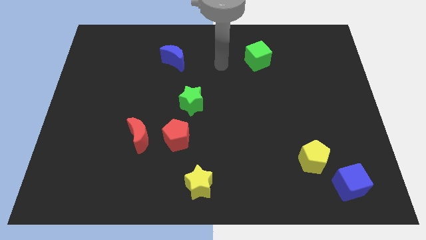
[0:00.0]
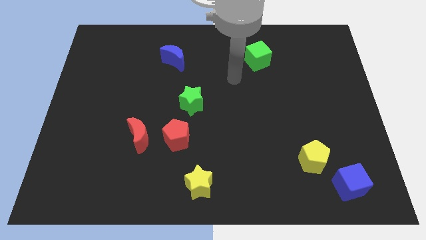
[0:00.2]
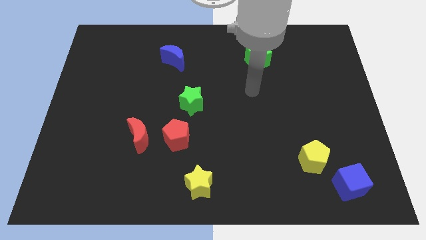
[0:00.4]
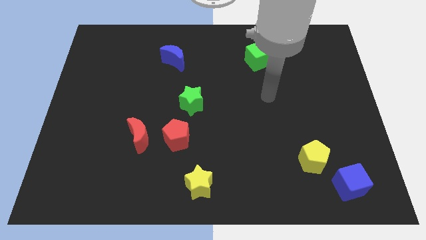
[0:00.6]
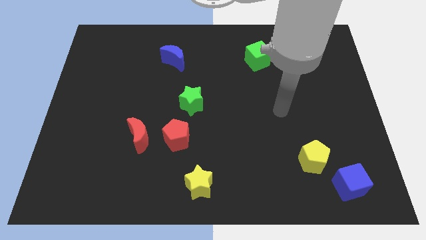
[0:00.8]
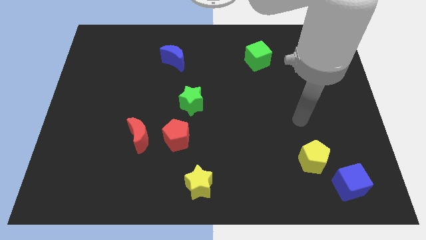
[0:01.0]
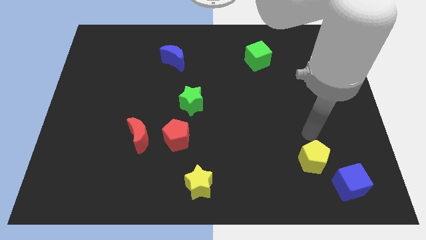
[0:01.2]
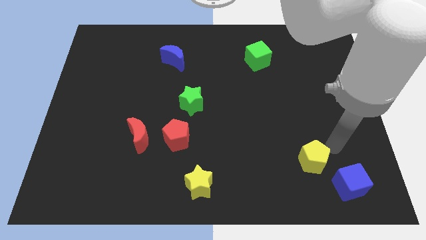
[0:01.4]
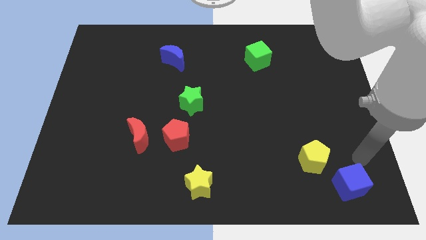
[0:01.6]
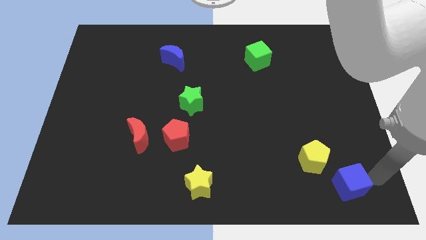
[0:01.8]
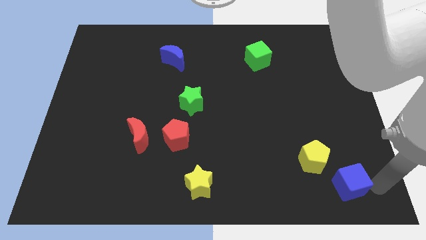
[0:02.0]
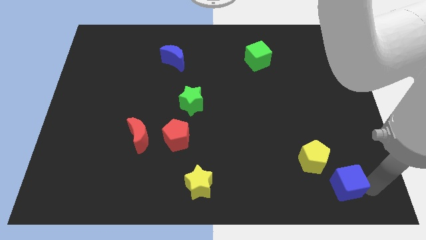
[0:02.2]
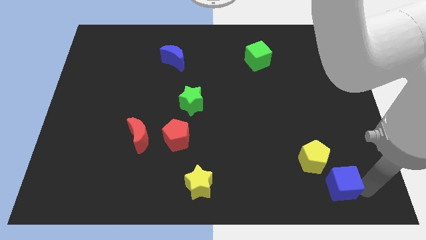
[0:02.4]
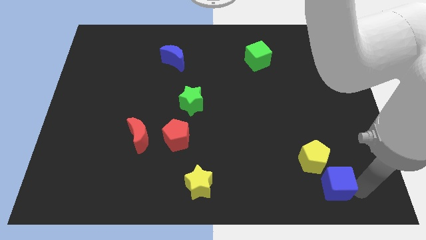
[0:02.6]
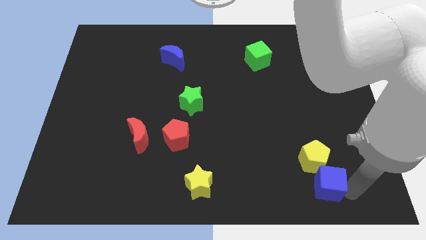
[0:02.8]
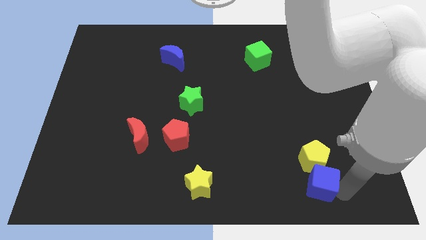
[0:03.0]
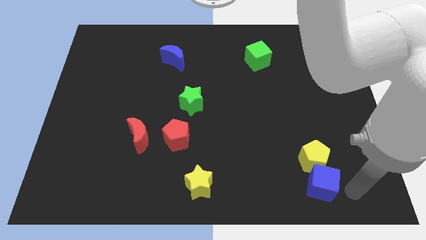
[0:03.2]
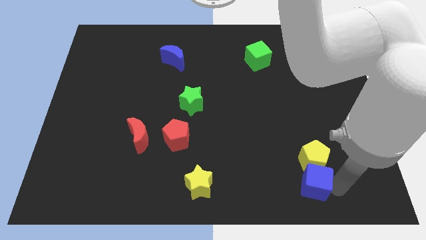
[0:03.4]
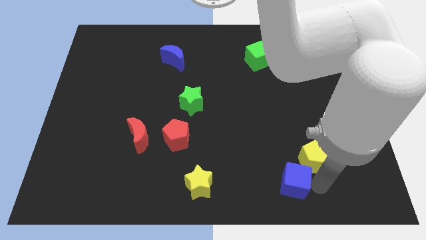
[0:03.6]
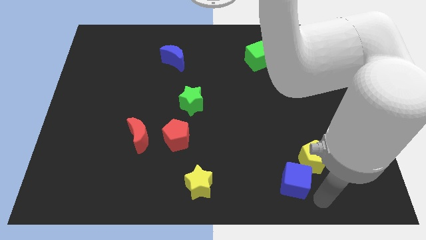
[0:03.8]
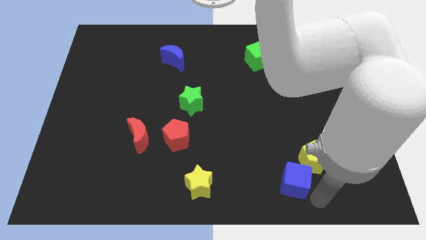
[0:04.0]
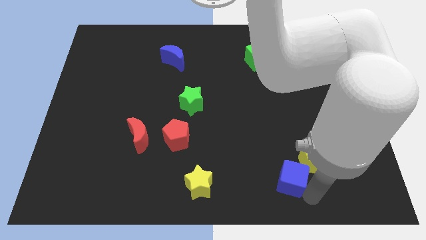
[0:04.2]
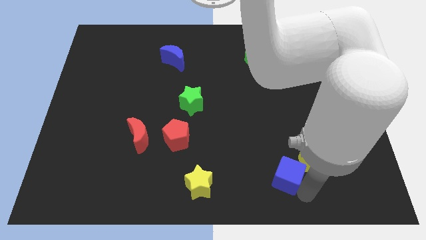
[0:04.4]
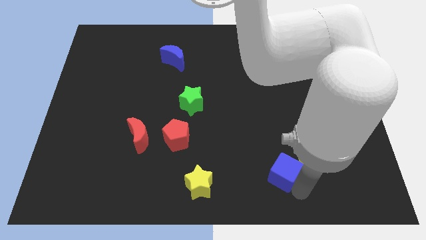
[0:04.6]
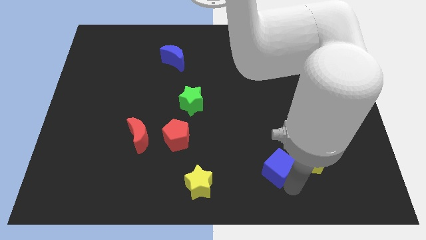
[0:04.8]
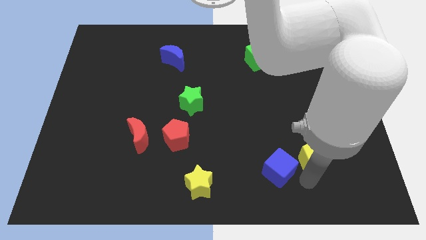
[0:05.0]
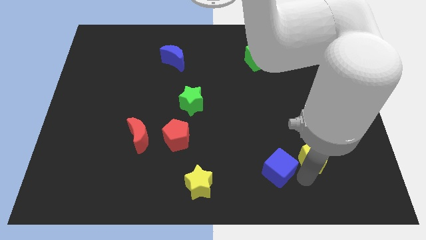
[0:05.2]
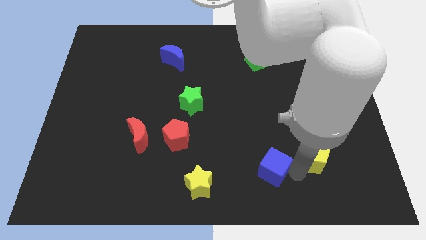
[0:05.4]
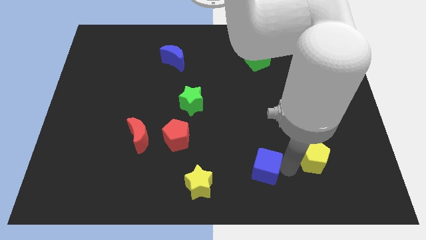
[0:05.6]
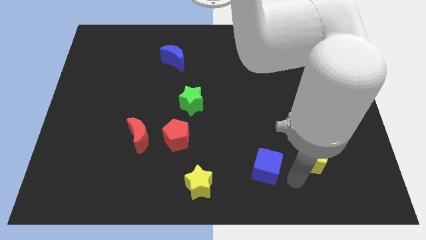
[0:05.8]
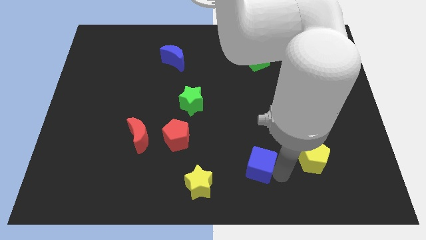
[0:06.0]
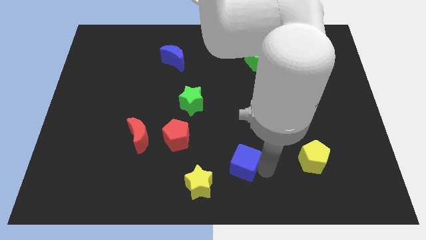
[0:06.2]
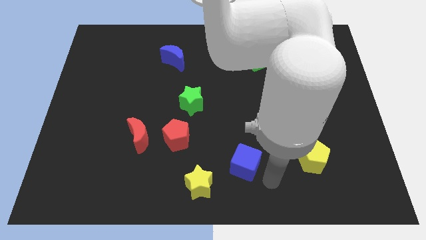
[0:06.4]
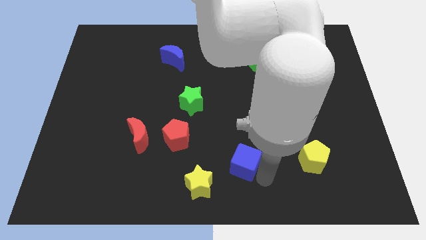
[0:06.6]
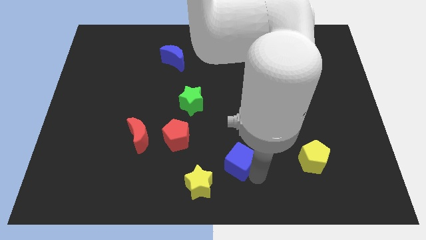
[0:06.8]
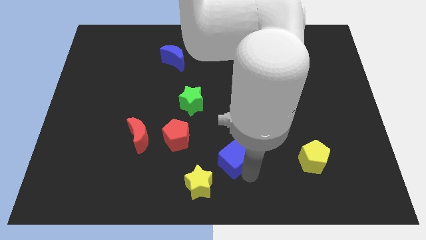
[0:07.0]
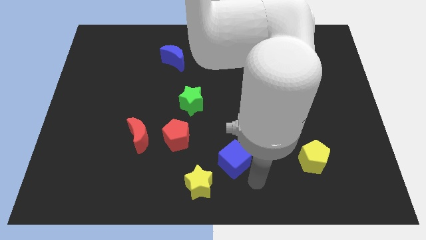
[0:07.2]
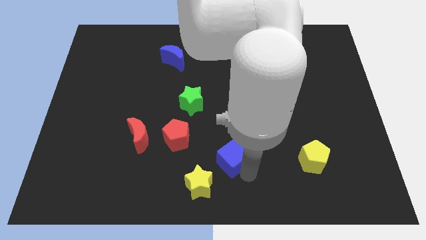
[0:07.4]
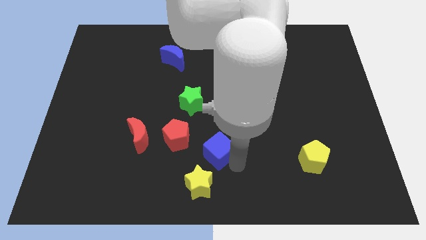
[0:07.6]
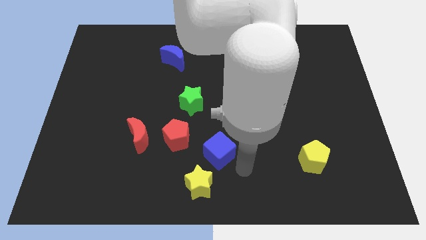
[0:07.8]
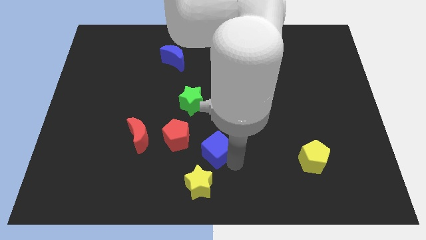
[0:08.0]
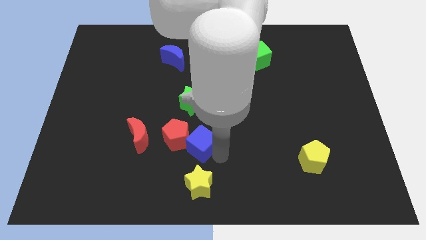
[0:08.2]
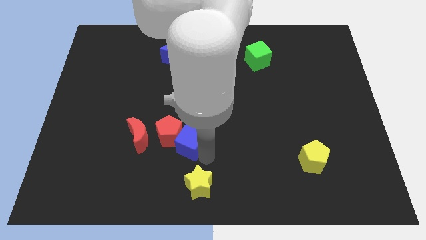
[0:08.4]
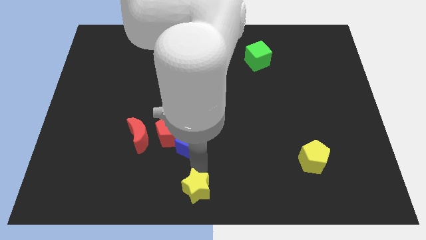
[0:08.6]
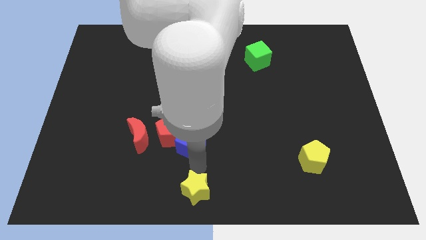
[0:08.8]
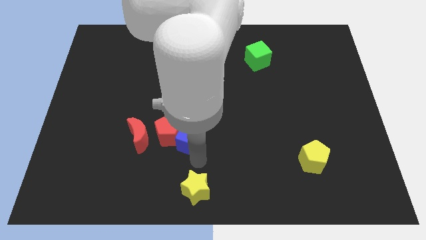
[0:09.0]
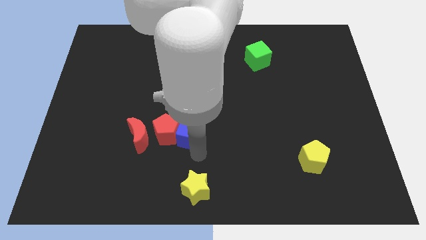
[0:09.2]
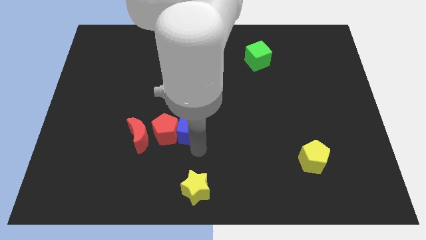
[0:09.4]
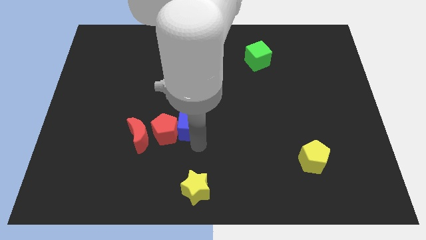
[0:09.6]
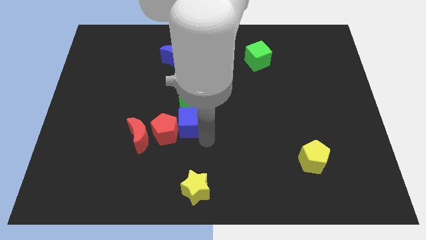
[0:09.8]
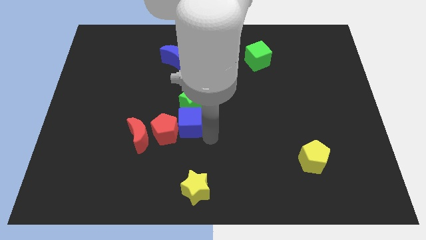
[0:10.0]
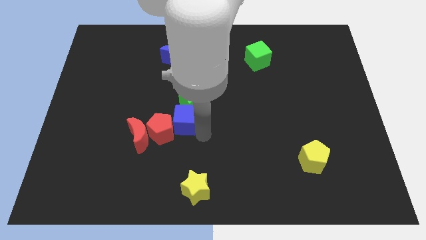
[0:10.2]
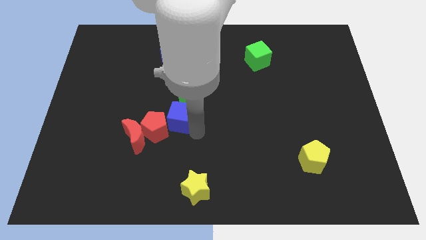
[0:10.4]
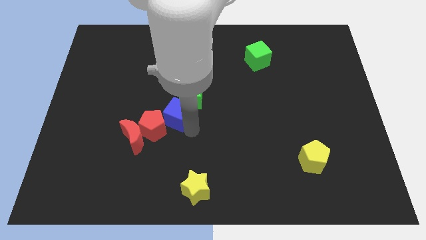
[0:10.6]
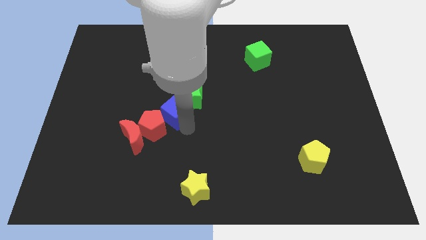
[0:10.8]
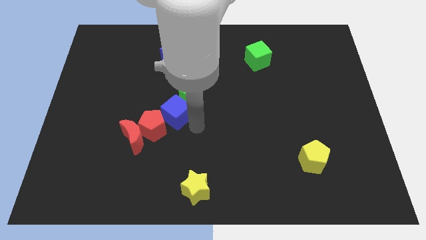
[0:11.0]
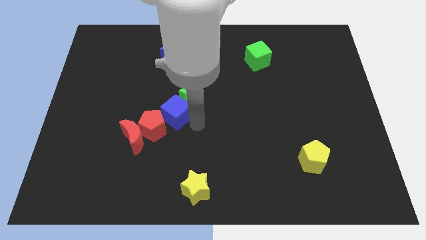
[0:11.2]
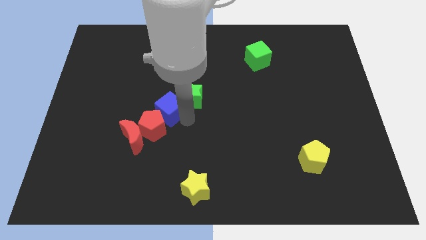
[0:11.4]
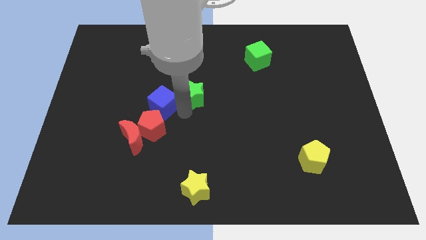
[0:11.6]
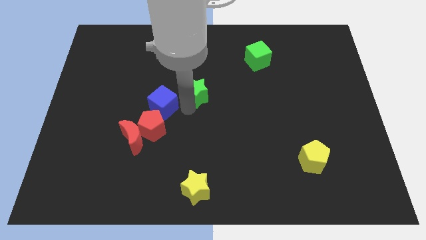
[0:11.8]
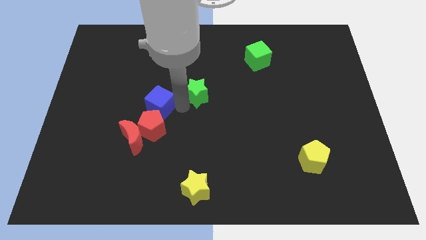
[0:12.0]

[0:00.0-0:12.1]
slide the blue cube to the top side of the red moon

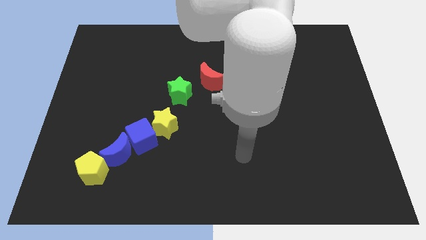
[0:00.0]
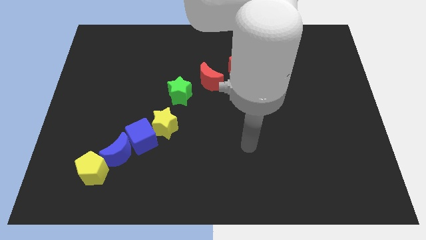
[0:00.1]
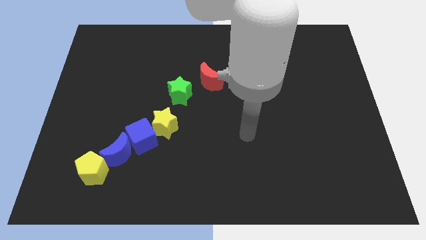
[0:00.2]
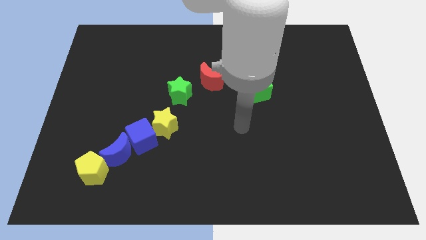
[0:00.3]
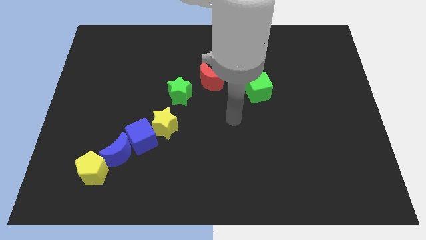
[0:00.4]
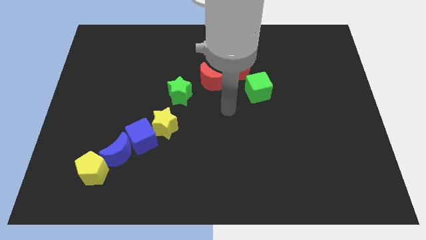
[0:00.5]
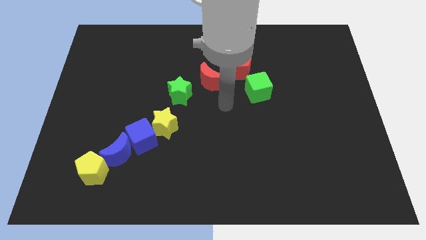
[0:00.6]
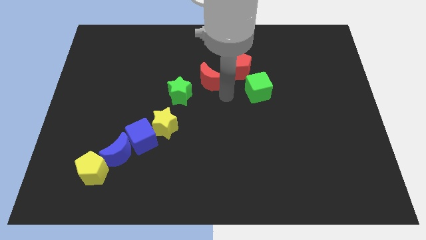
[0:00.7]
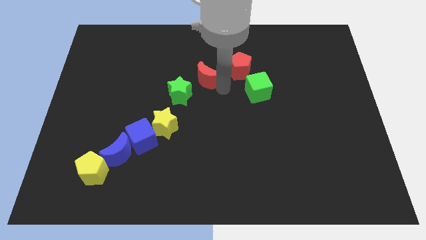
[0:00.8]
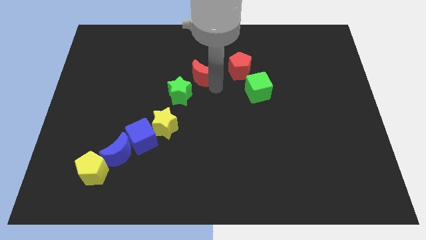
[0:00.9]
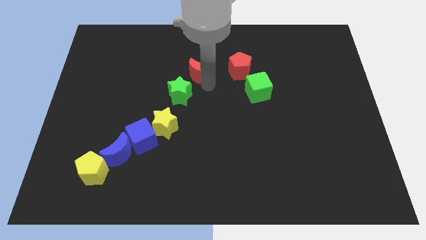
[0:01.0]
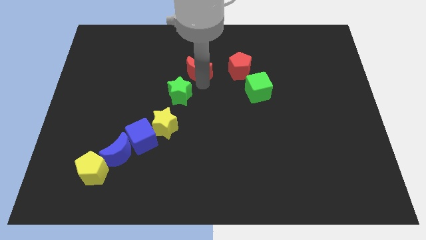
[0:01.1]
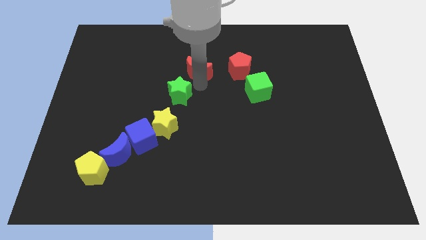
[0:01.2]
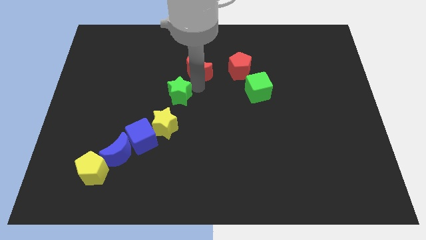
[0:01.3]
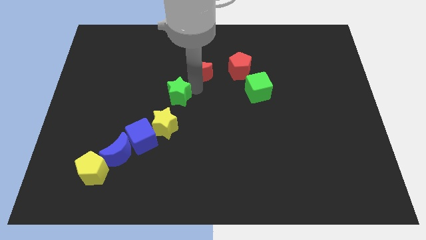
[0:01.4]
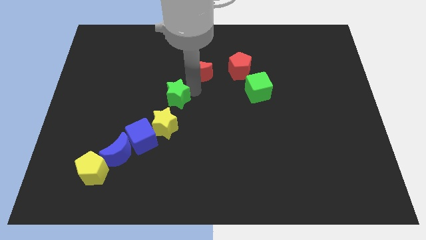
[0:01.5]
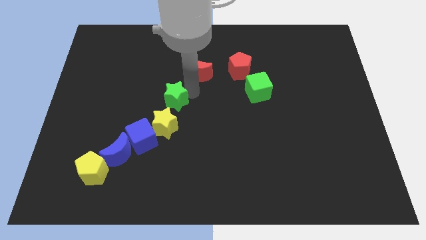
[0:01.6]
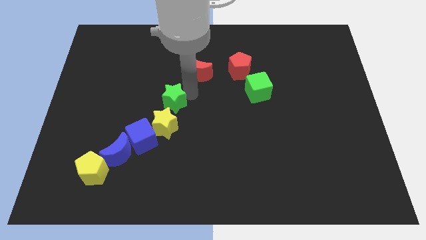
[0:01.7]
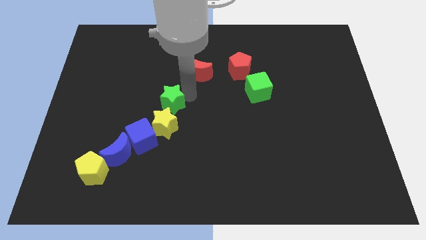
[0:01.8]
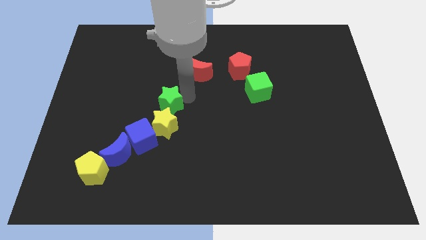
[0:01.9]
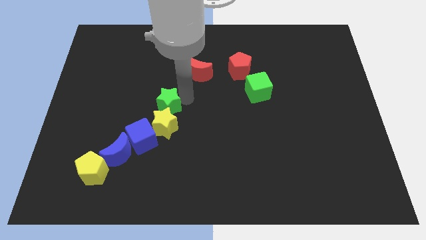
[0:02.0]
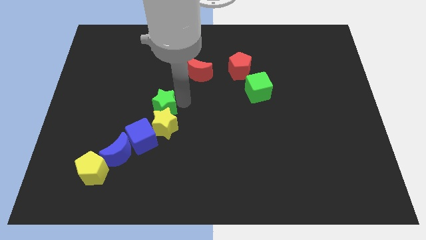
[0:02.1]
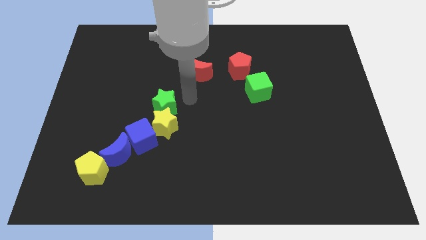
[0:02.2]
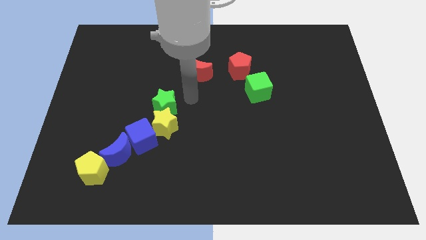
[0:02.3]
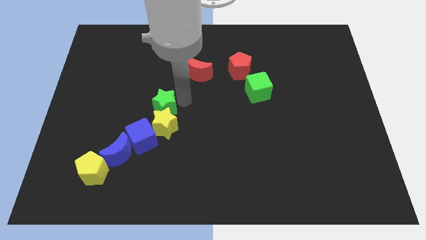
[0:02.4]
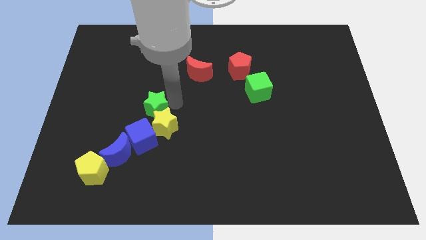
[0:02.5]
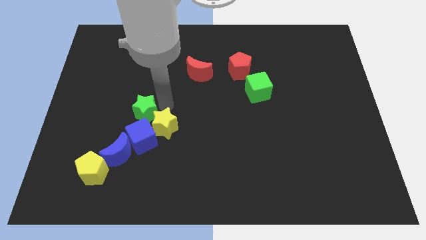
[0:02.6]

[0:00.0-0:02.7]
push the green star diagonally up and to the left of the blue cube
